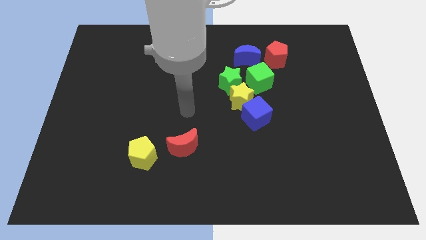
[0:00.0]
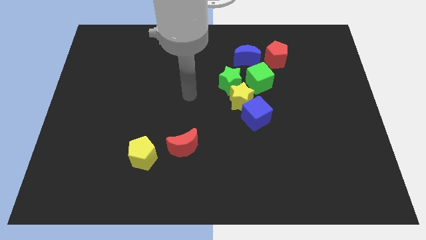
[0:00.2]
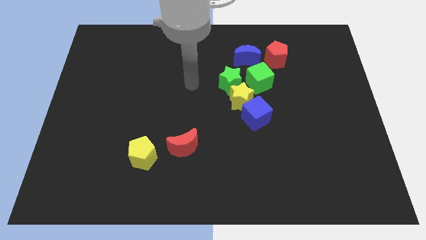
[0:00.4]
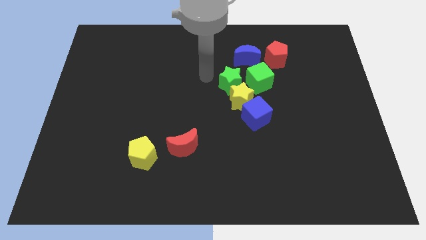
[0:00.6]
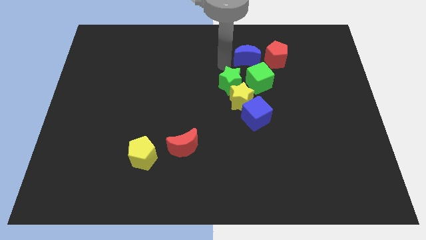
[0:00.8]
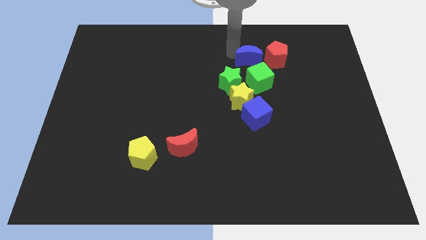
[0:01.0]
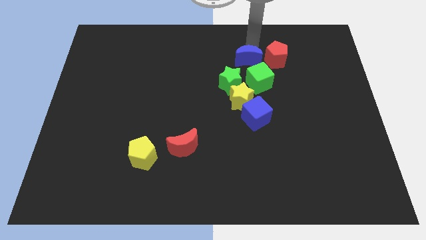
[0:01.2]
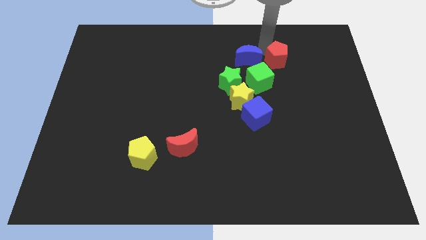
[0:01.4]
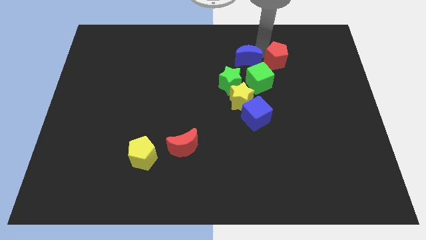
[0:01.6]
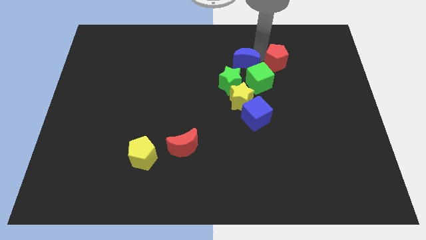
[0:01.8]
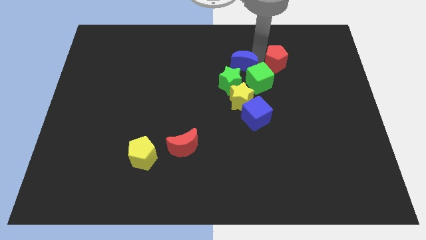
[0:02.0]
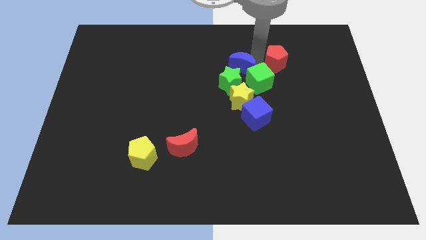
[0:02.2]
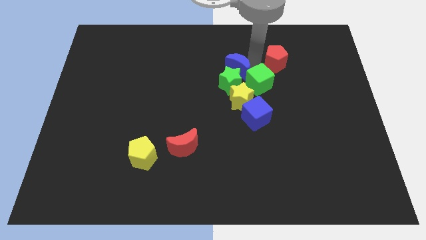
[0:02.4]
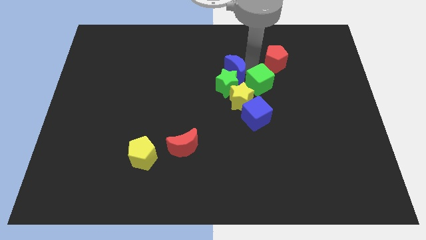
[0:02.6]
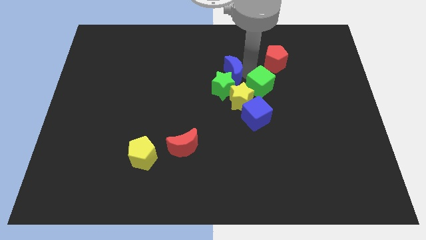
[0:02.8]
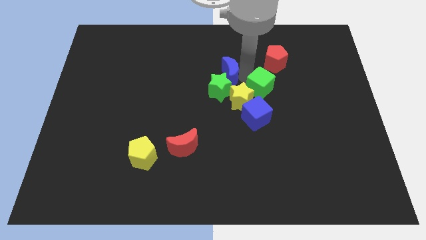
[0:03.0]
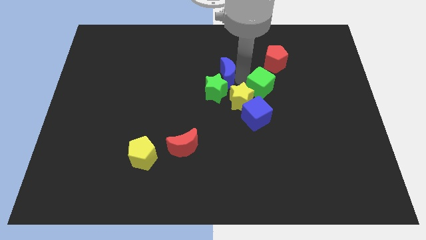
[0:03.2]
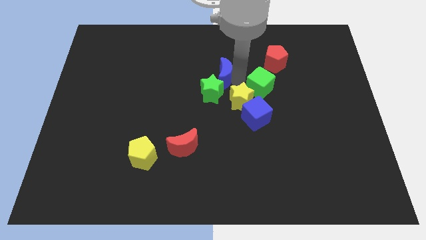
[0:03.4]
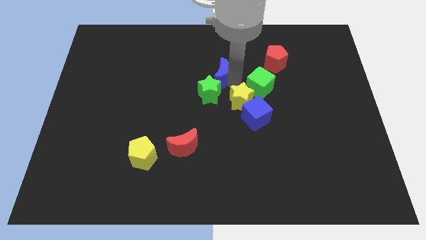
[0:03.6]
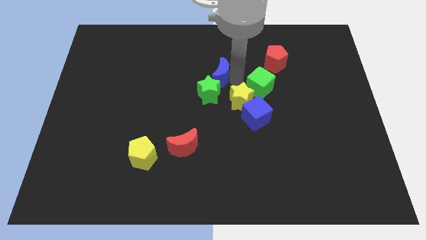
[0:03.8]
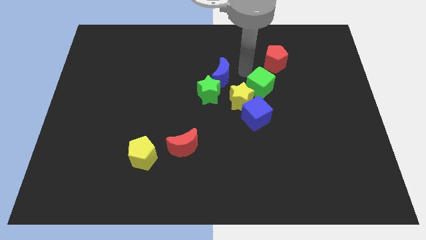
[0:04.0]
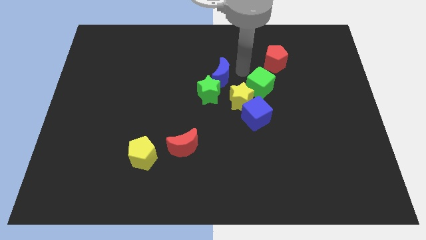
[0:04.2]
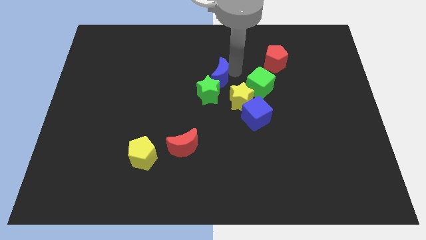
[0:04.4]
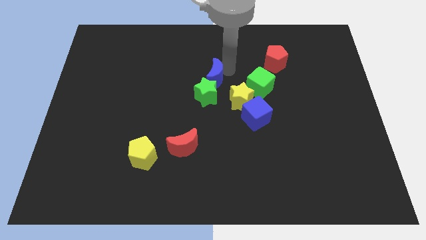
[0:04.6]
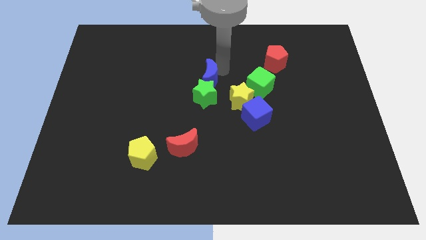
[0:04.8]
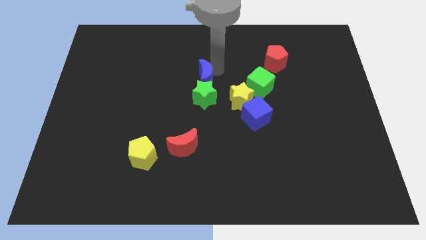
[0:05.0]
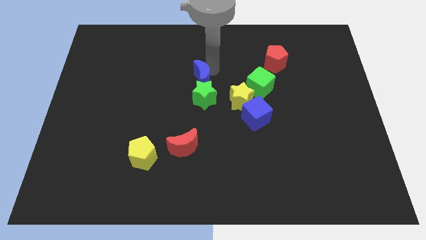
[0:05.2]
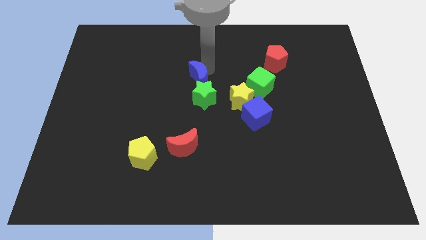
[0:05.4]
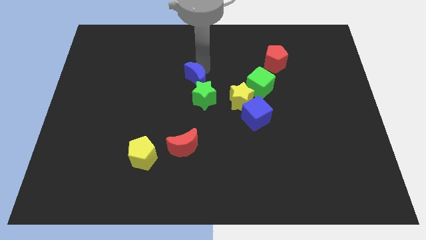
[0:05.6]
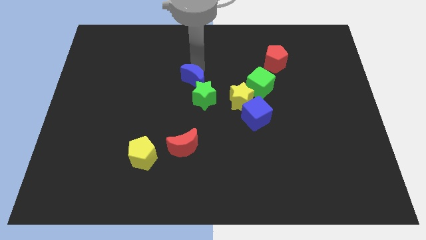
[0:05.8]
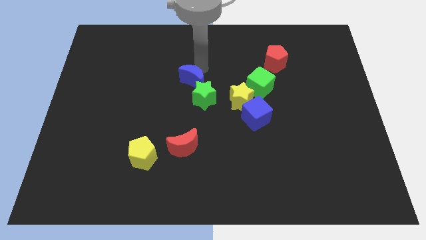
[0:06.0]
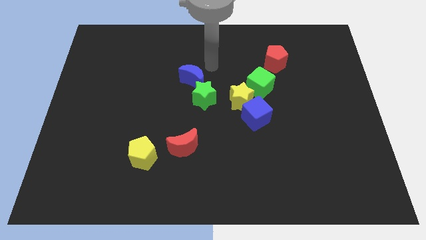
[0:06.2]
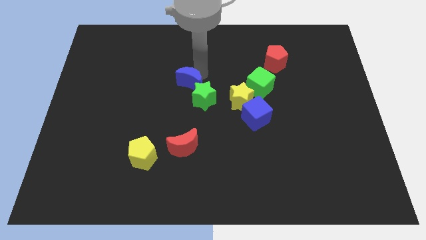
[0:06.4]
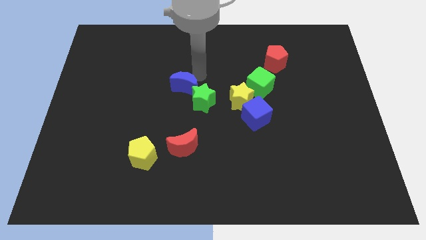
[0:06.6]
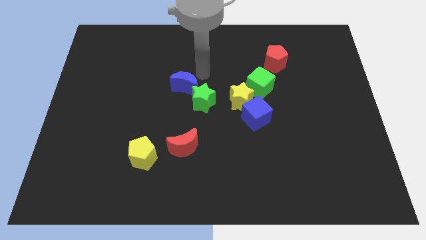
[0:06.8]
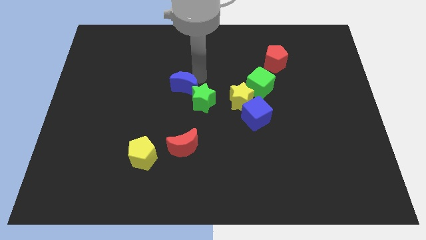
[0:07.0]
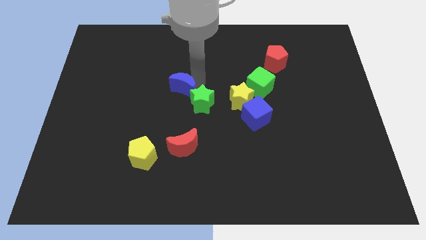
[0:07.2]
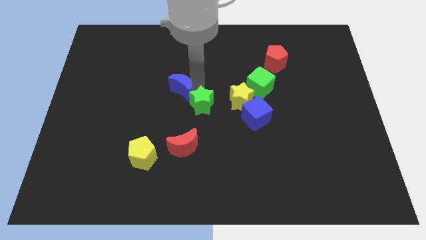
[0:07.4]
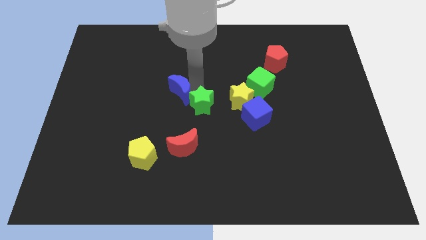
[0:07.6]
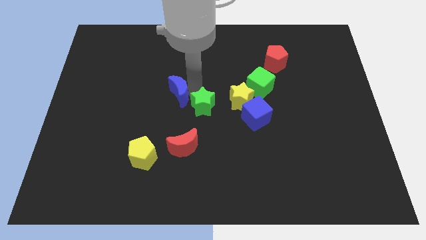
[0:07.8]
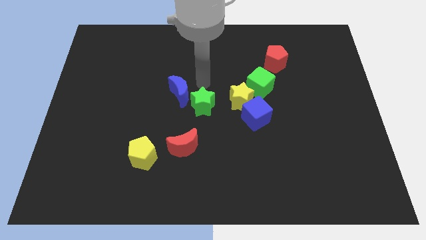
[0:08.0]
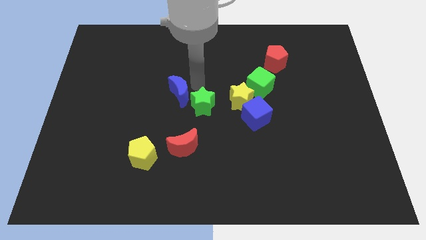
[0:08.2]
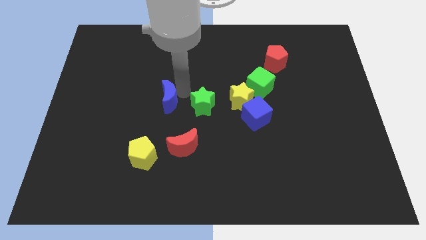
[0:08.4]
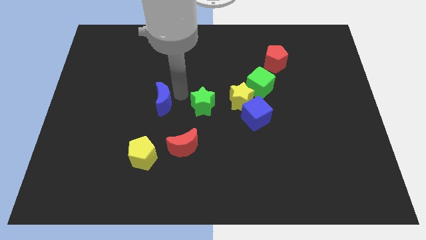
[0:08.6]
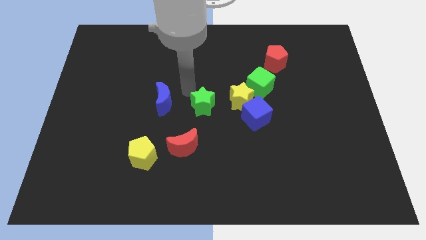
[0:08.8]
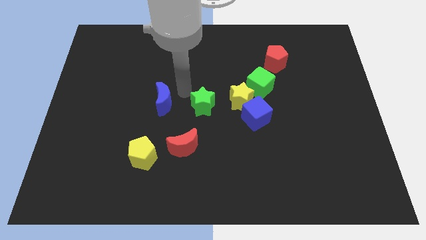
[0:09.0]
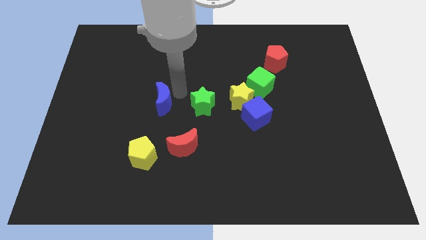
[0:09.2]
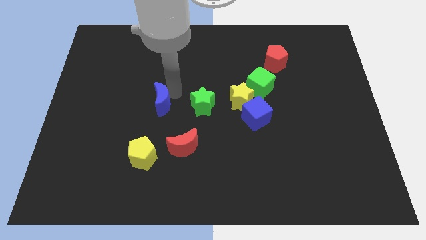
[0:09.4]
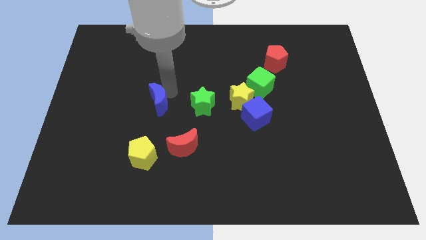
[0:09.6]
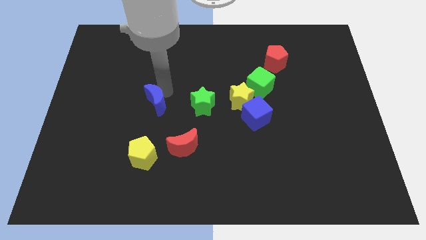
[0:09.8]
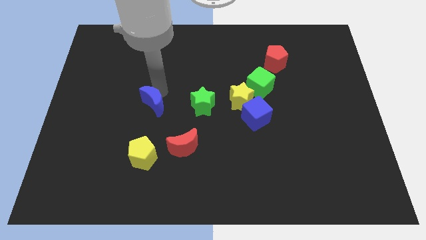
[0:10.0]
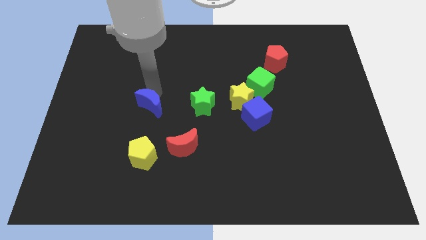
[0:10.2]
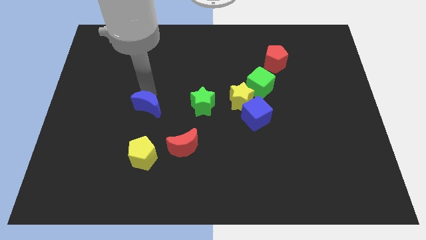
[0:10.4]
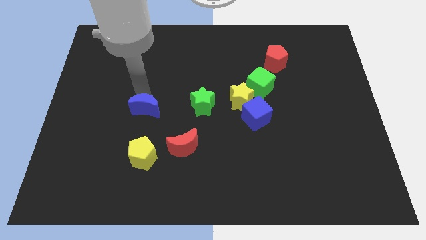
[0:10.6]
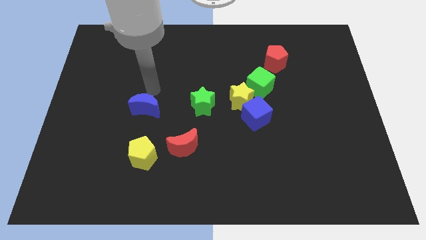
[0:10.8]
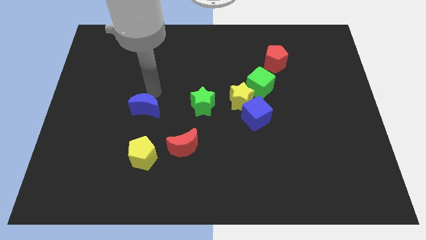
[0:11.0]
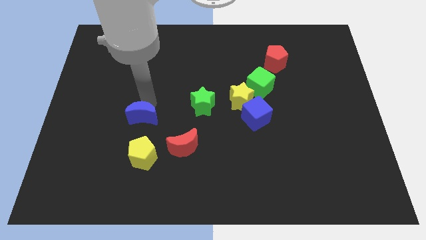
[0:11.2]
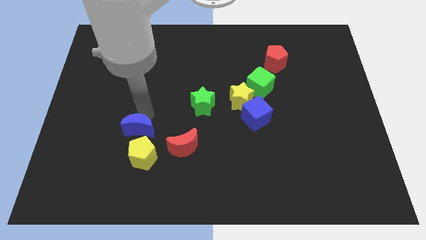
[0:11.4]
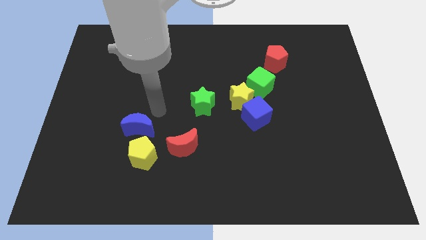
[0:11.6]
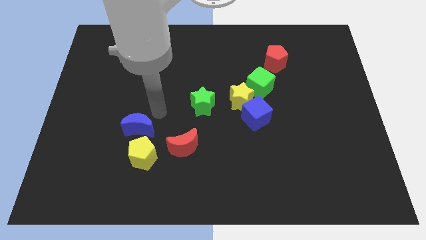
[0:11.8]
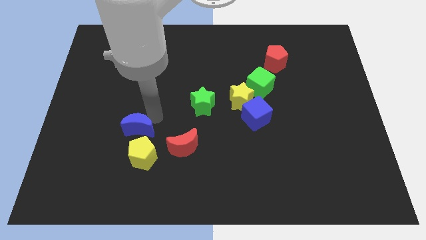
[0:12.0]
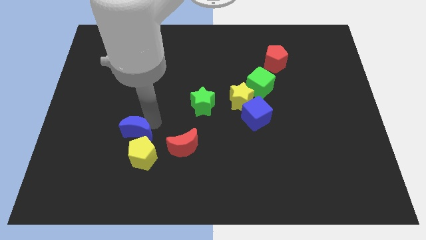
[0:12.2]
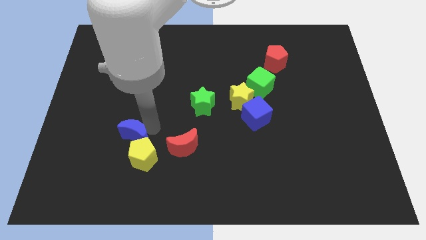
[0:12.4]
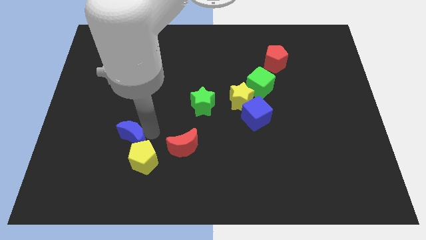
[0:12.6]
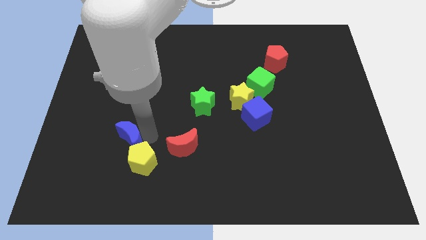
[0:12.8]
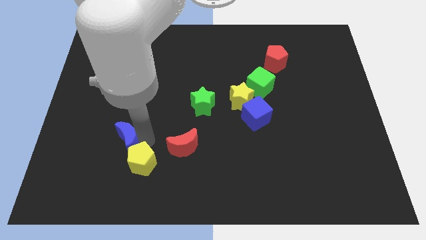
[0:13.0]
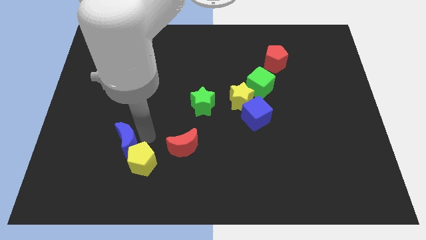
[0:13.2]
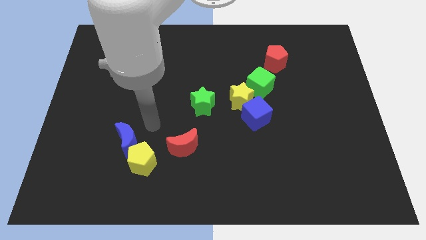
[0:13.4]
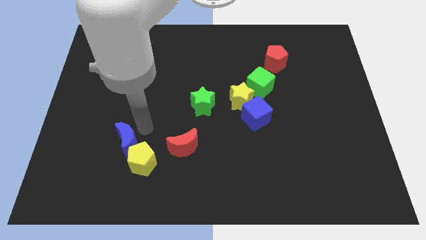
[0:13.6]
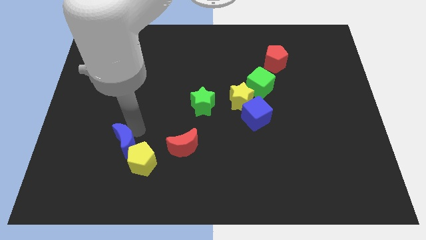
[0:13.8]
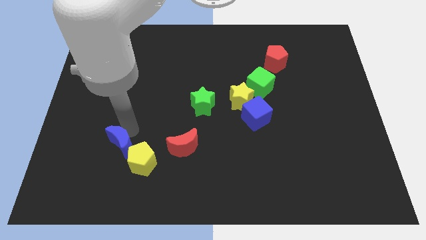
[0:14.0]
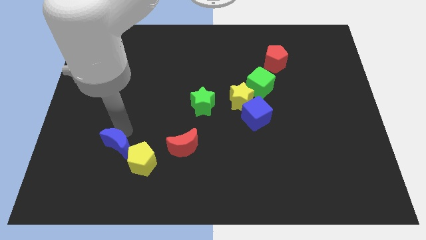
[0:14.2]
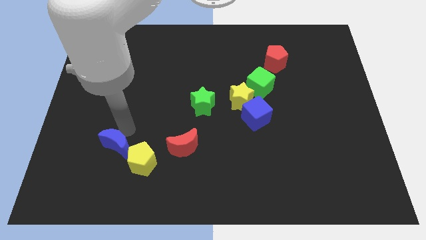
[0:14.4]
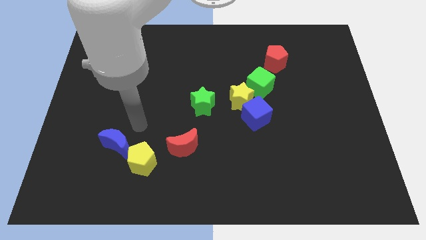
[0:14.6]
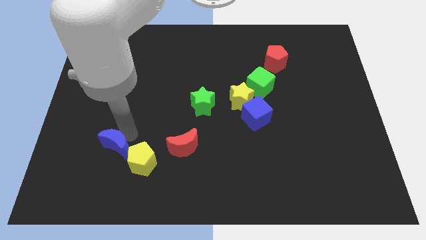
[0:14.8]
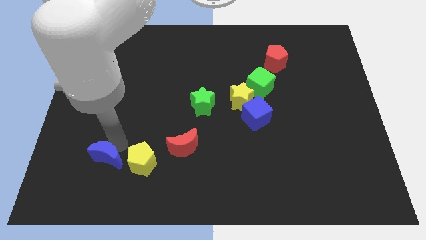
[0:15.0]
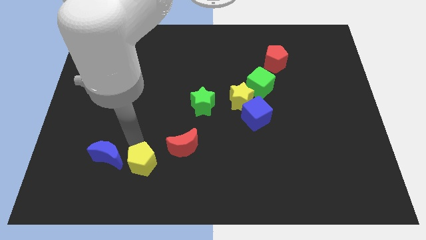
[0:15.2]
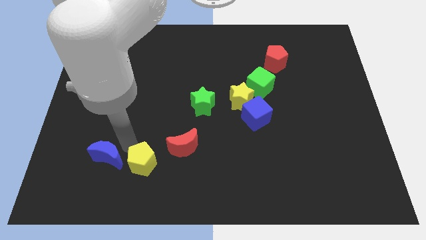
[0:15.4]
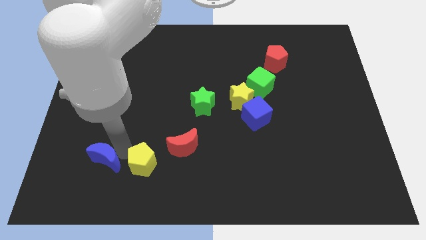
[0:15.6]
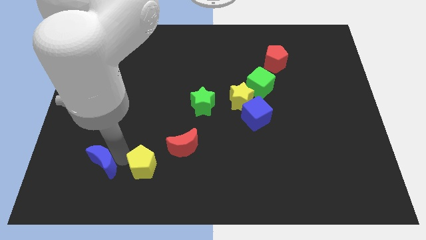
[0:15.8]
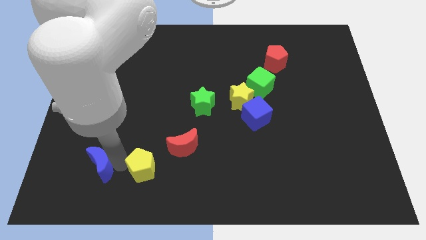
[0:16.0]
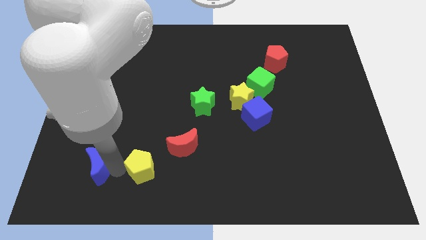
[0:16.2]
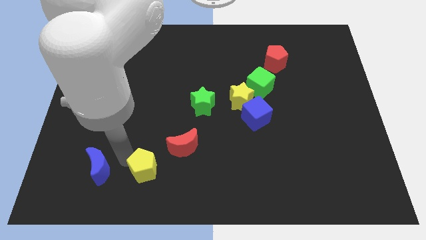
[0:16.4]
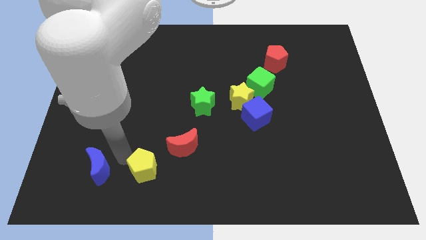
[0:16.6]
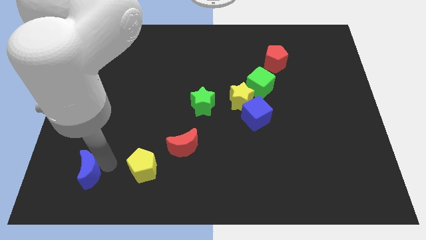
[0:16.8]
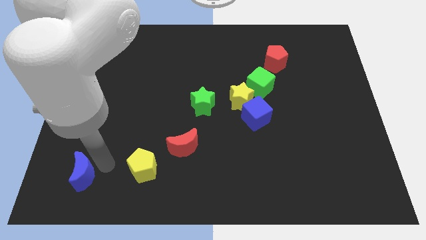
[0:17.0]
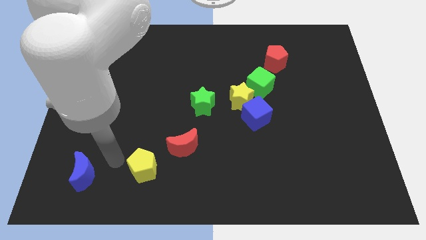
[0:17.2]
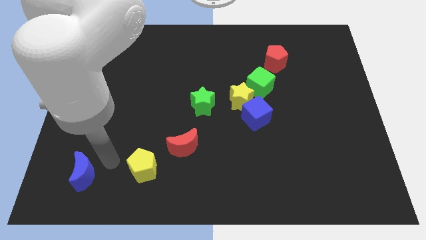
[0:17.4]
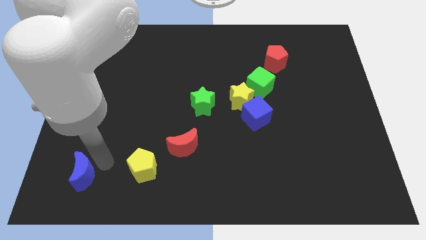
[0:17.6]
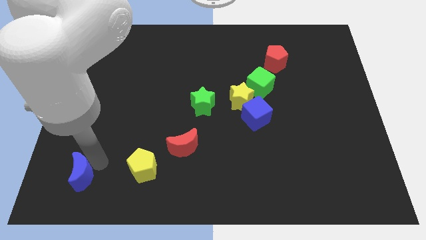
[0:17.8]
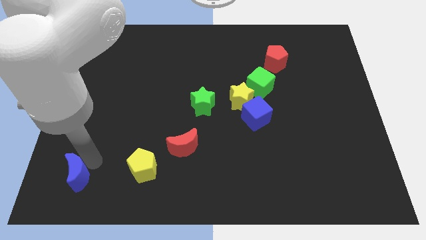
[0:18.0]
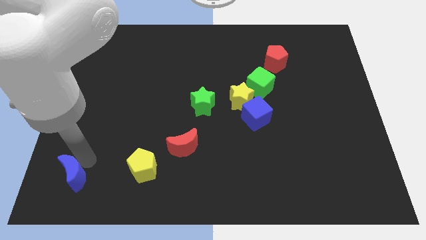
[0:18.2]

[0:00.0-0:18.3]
put the blue moon to the lower left corner
